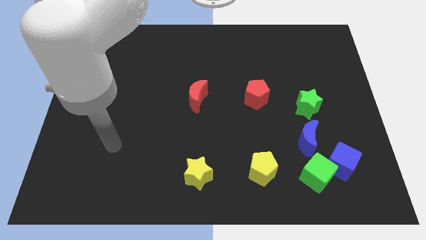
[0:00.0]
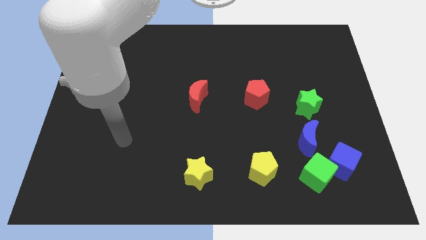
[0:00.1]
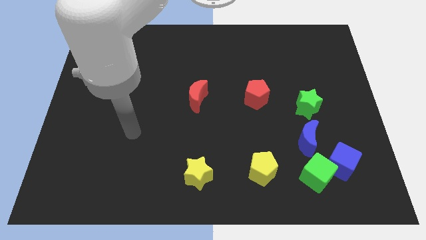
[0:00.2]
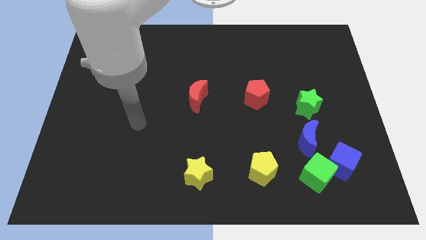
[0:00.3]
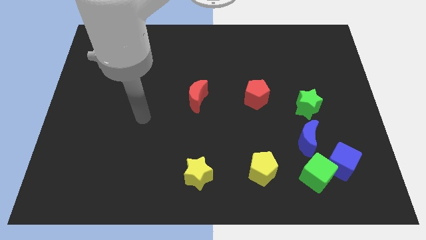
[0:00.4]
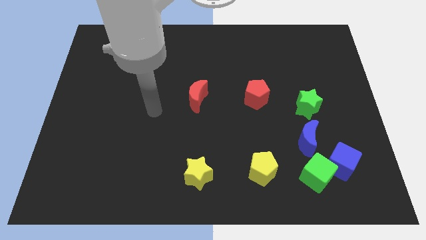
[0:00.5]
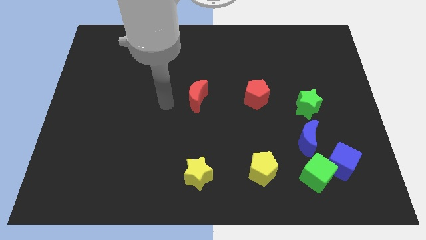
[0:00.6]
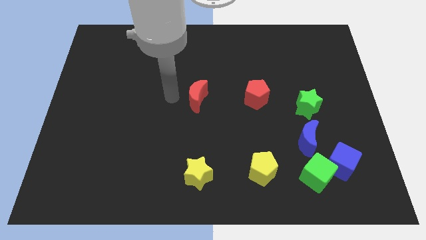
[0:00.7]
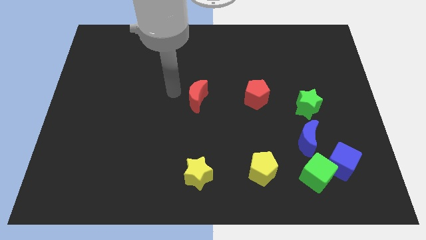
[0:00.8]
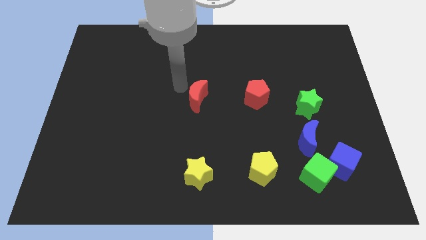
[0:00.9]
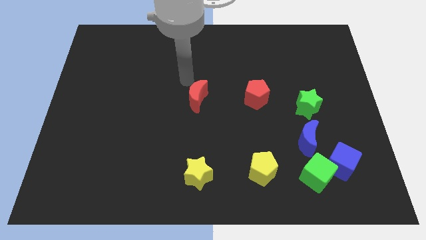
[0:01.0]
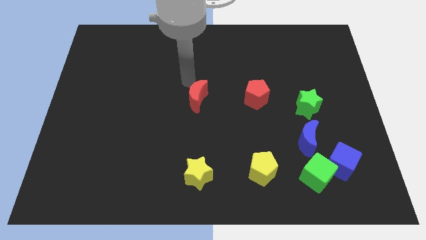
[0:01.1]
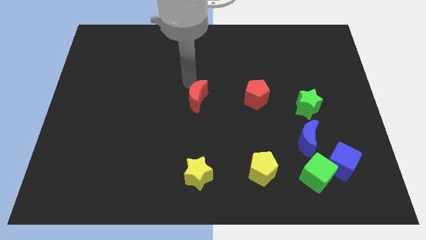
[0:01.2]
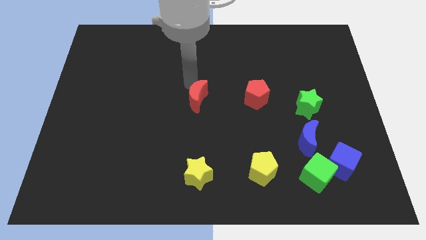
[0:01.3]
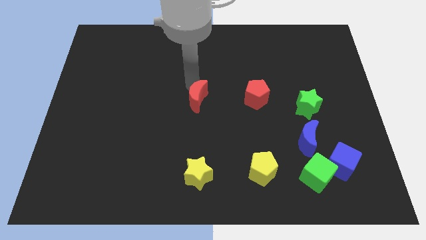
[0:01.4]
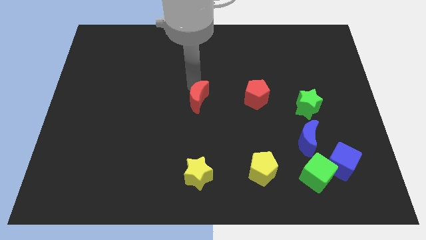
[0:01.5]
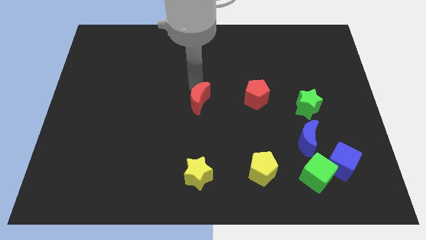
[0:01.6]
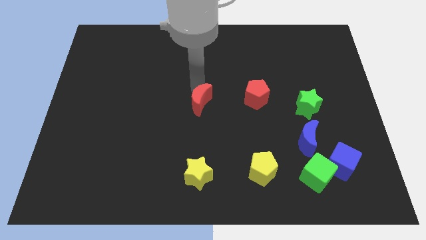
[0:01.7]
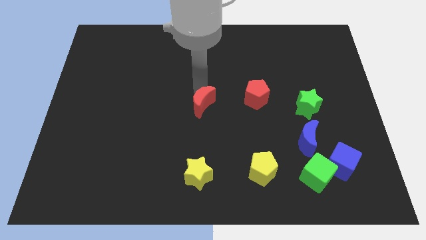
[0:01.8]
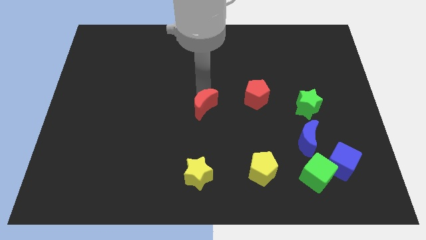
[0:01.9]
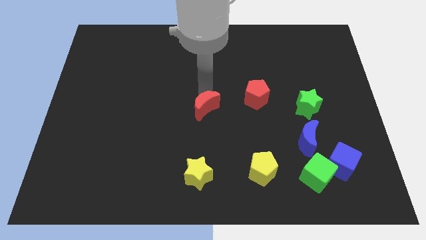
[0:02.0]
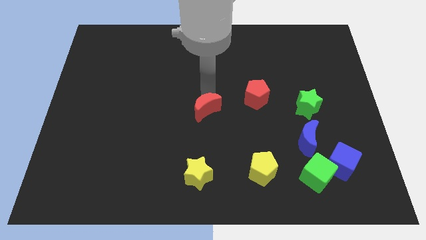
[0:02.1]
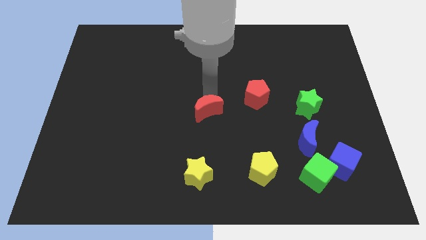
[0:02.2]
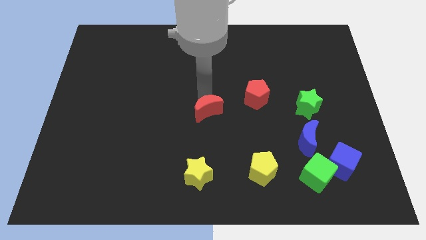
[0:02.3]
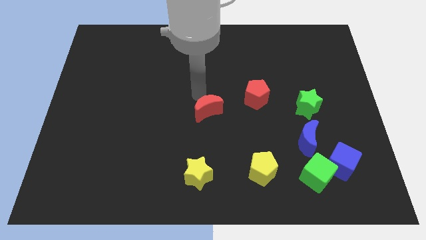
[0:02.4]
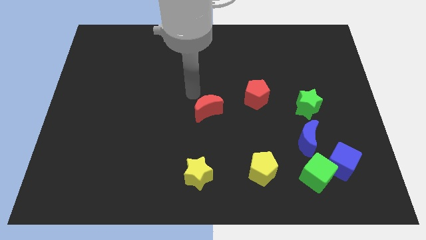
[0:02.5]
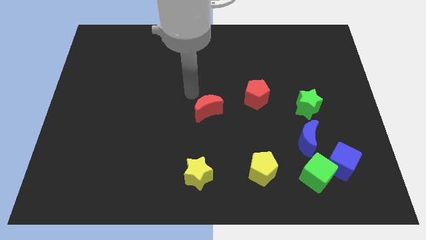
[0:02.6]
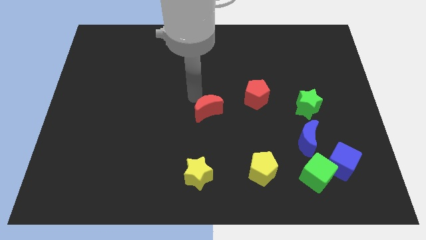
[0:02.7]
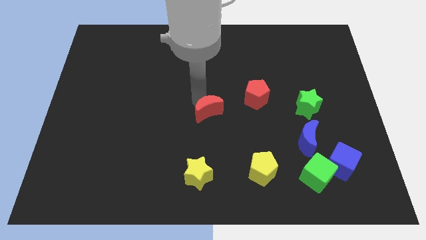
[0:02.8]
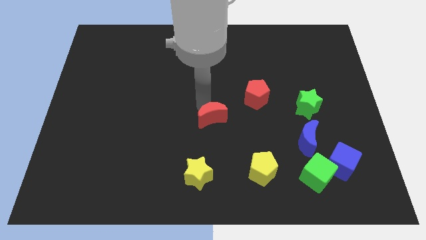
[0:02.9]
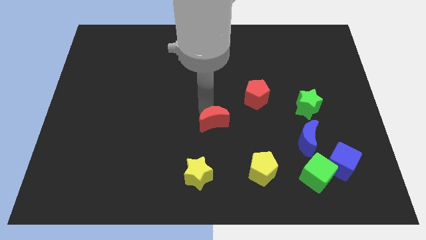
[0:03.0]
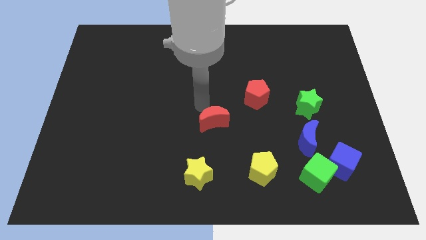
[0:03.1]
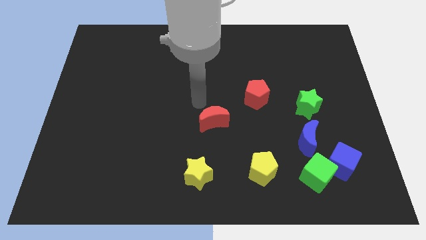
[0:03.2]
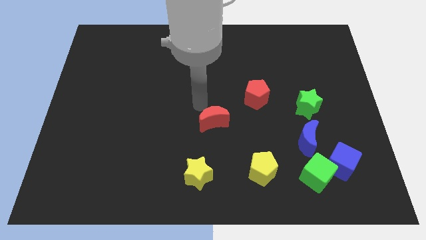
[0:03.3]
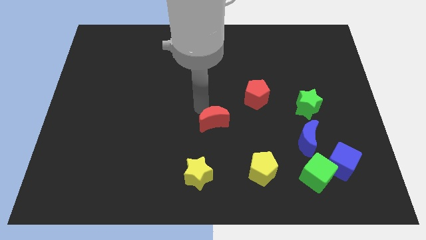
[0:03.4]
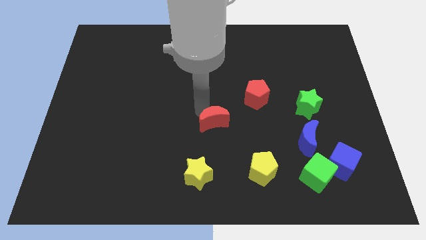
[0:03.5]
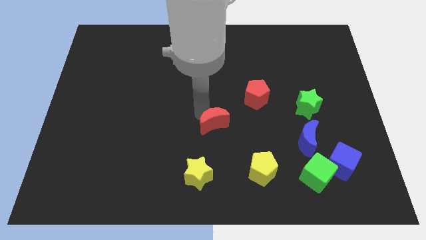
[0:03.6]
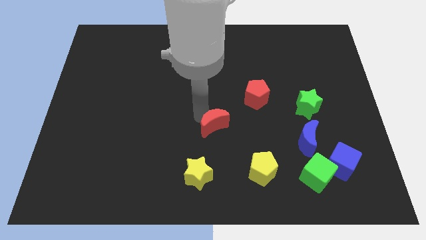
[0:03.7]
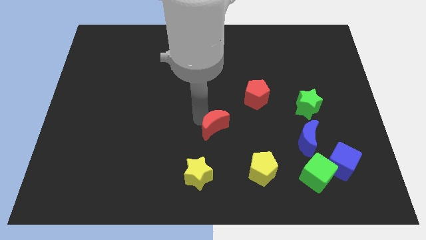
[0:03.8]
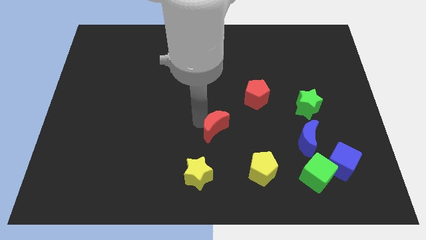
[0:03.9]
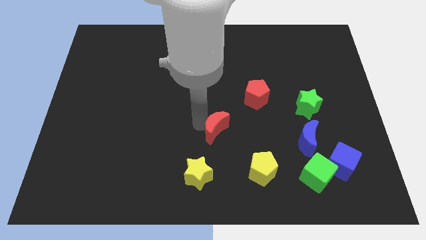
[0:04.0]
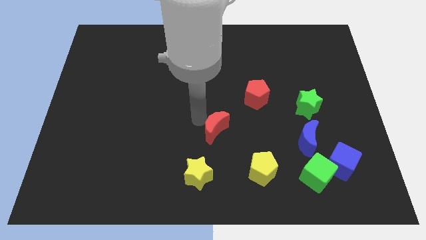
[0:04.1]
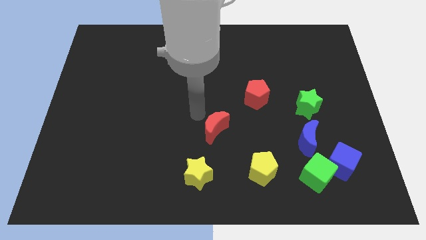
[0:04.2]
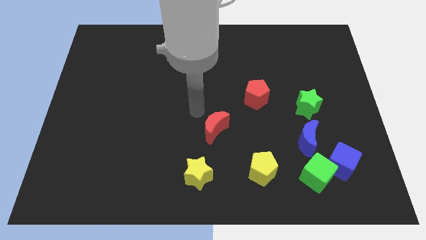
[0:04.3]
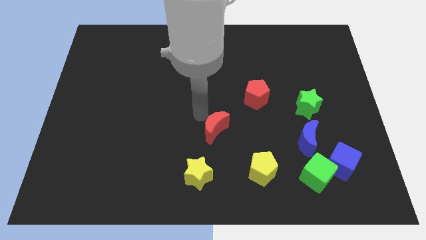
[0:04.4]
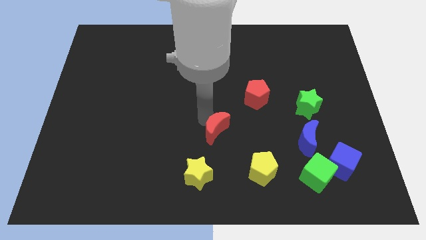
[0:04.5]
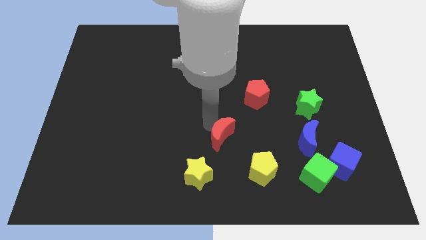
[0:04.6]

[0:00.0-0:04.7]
push the red moon to the top left side of the yellow pentagon

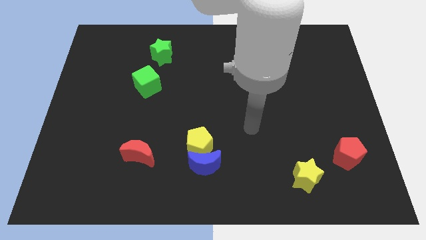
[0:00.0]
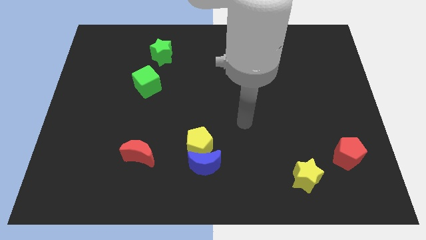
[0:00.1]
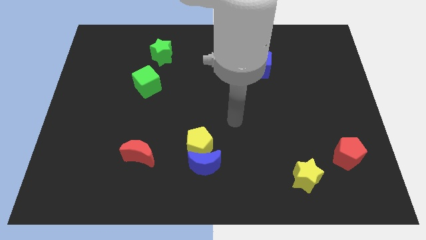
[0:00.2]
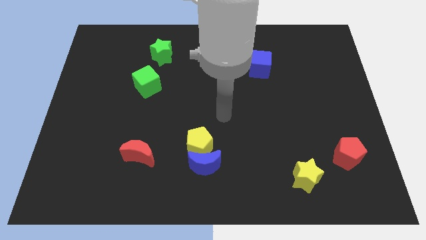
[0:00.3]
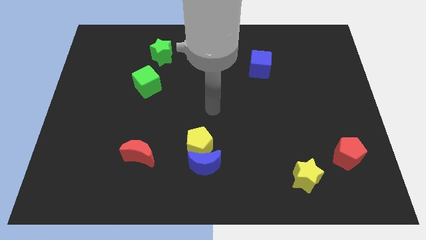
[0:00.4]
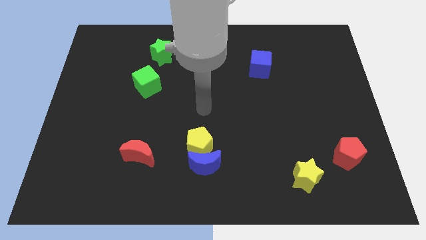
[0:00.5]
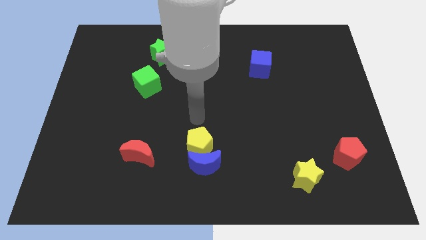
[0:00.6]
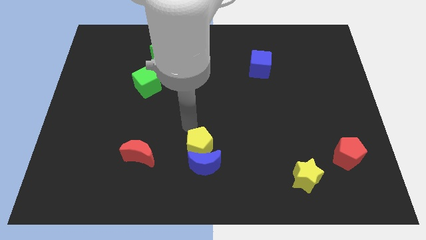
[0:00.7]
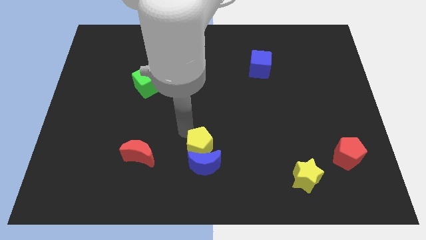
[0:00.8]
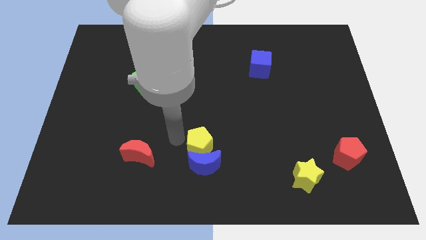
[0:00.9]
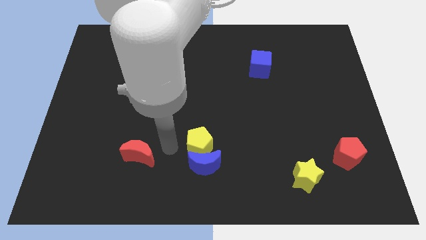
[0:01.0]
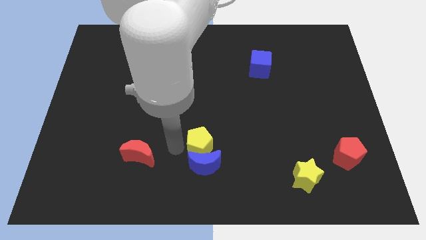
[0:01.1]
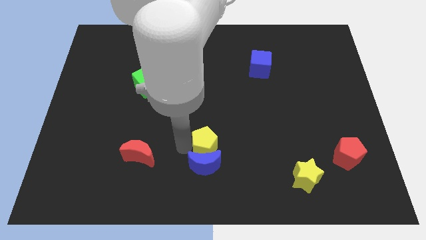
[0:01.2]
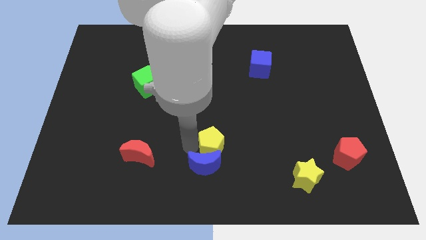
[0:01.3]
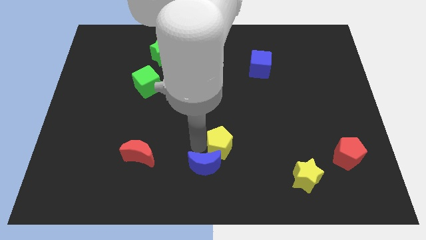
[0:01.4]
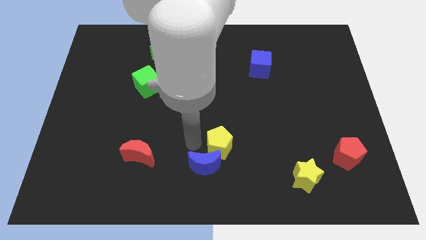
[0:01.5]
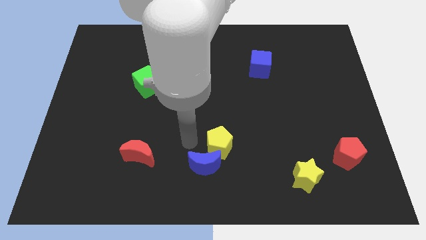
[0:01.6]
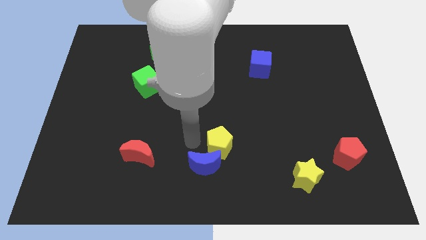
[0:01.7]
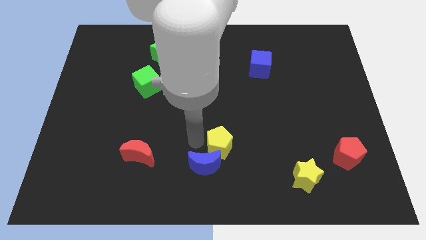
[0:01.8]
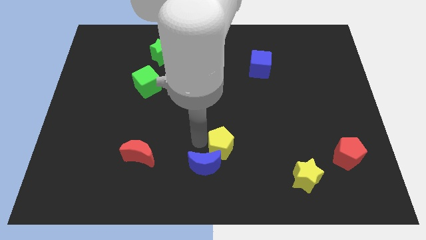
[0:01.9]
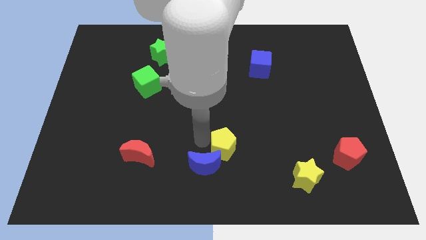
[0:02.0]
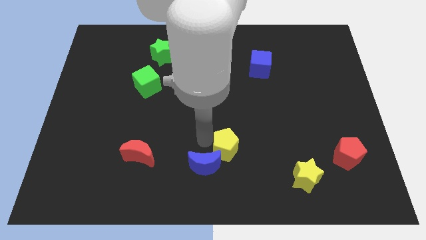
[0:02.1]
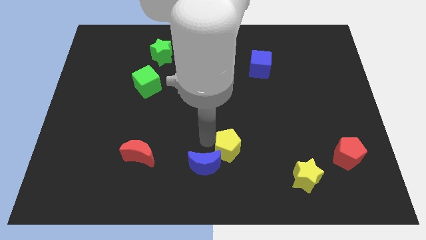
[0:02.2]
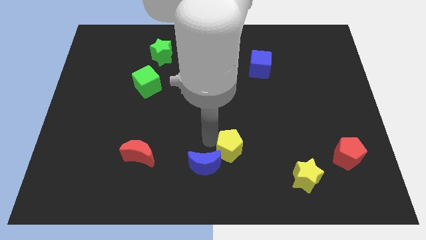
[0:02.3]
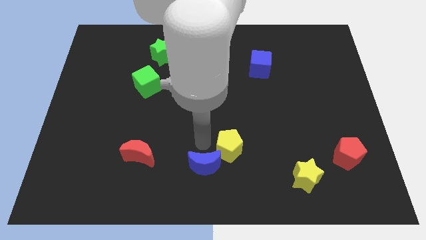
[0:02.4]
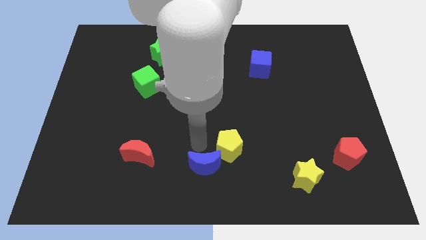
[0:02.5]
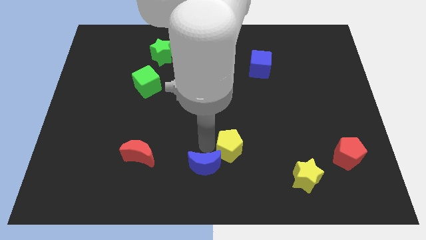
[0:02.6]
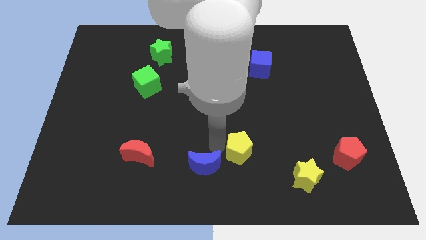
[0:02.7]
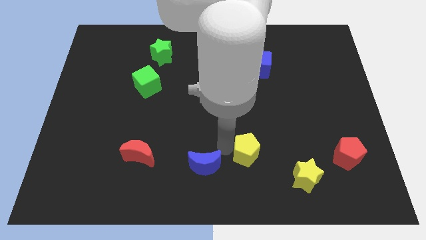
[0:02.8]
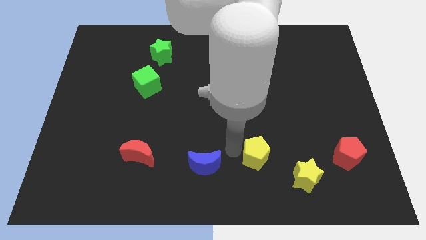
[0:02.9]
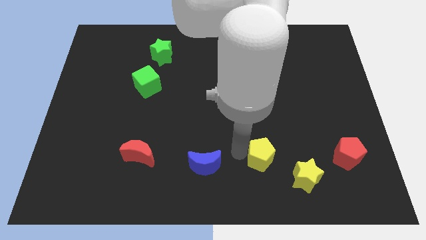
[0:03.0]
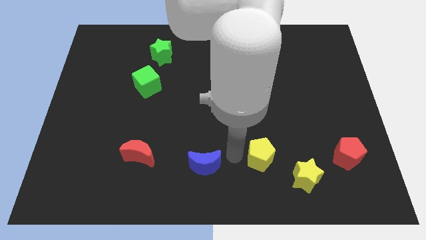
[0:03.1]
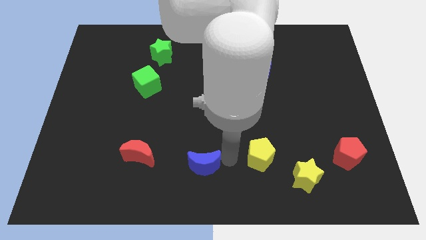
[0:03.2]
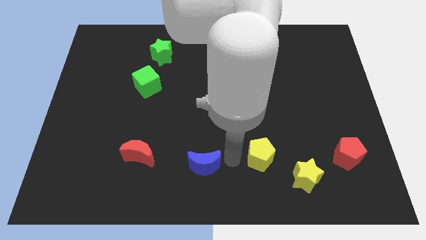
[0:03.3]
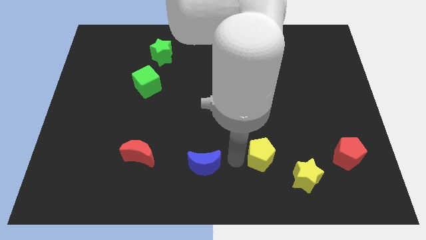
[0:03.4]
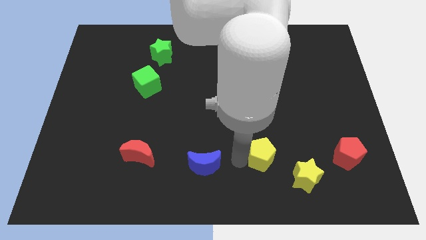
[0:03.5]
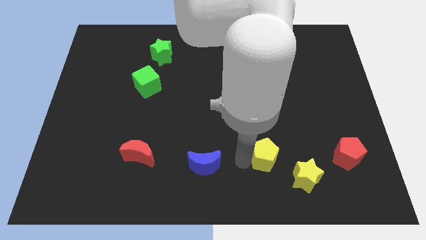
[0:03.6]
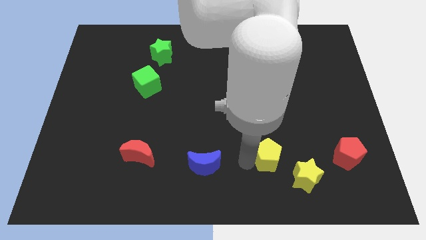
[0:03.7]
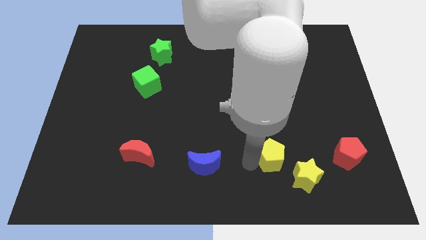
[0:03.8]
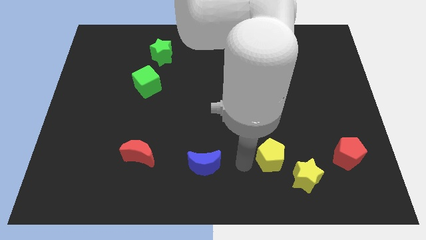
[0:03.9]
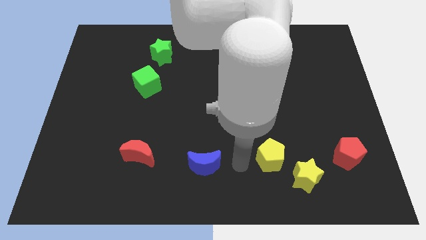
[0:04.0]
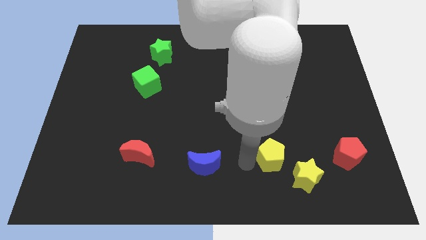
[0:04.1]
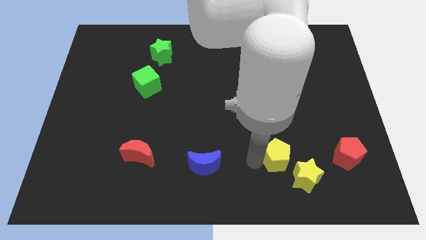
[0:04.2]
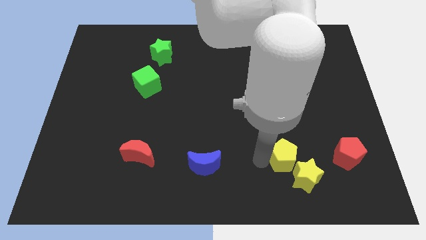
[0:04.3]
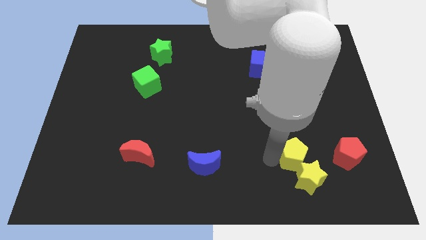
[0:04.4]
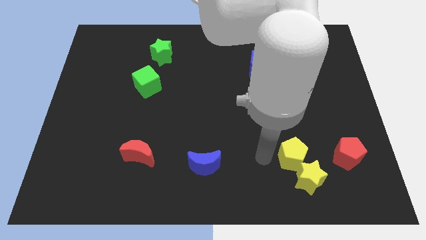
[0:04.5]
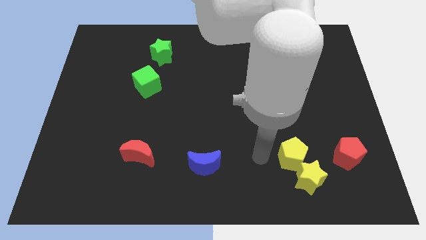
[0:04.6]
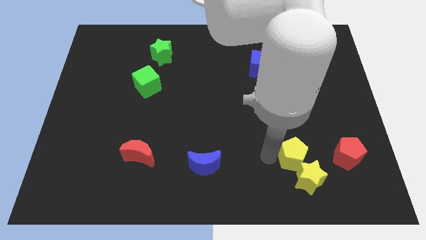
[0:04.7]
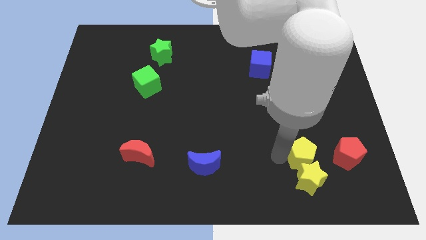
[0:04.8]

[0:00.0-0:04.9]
slide the yellow pentagon to the top right side of the yellow star
